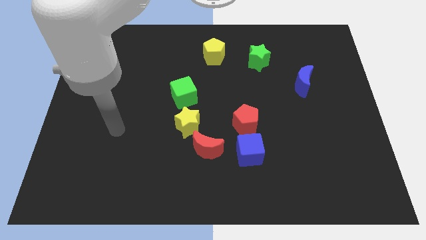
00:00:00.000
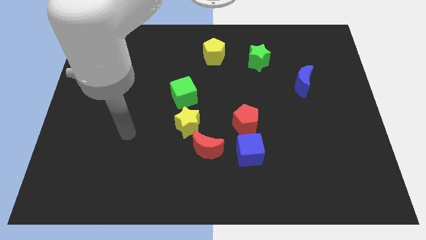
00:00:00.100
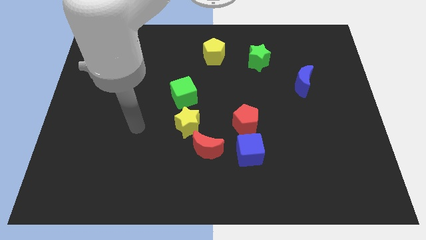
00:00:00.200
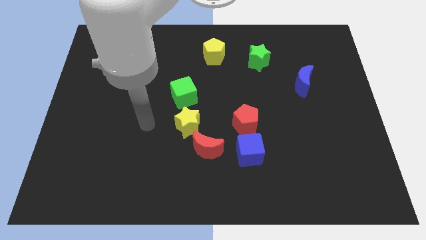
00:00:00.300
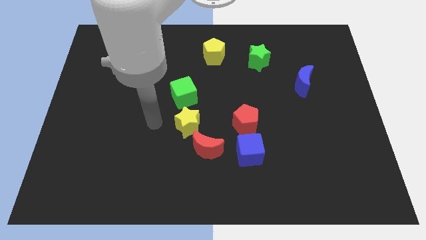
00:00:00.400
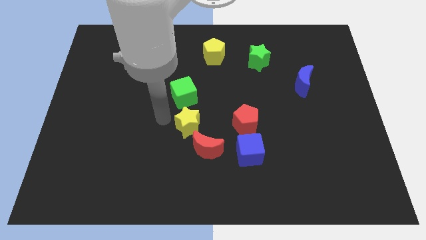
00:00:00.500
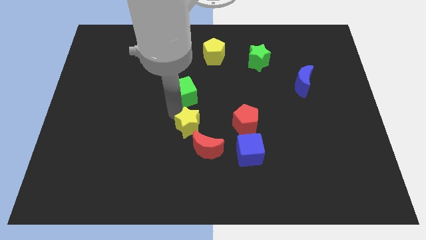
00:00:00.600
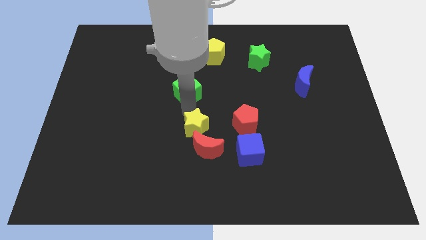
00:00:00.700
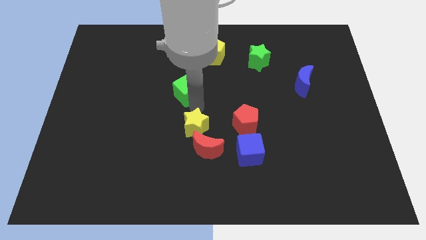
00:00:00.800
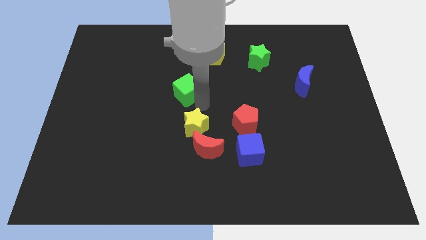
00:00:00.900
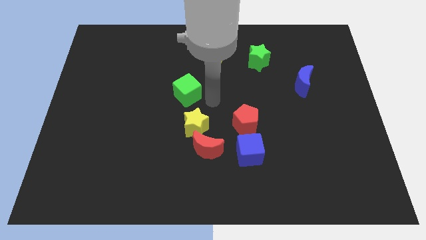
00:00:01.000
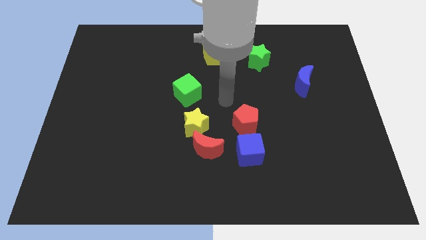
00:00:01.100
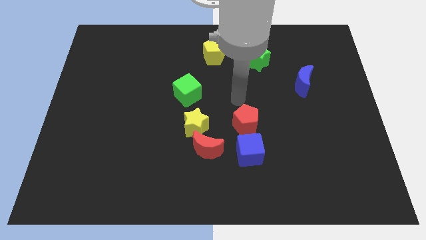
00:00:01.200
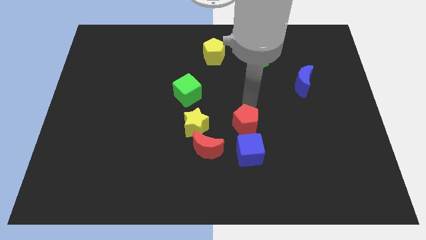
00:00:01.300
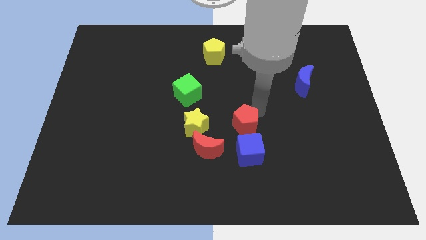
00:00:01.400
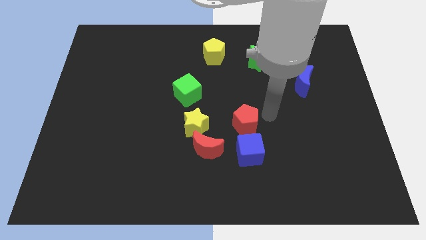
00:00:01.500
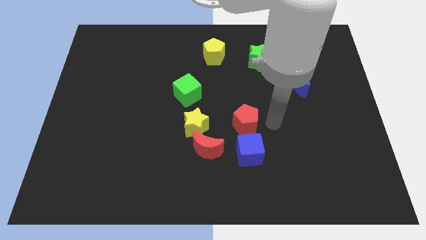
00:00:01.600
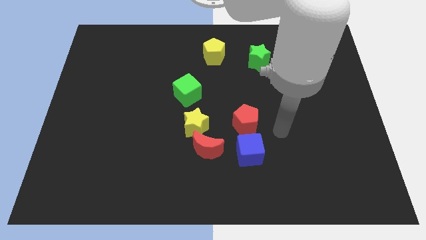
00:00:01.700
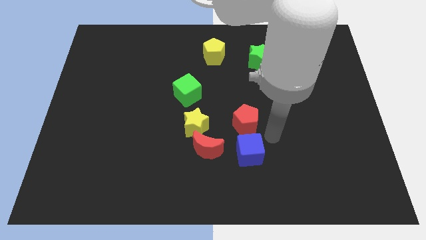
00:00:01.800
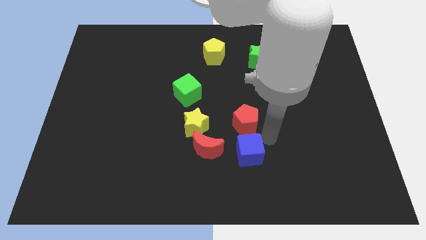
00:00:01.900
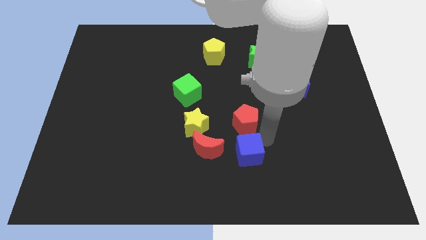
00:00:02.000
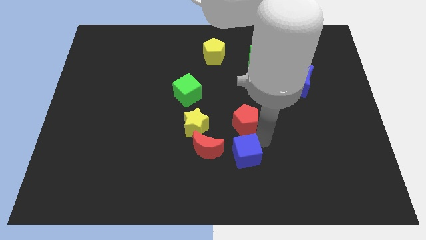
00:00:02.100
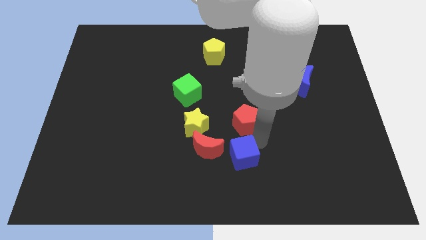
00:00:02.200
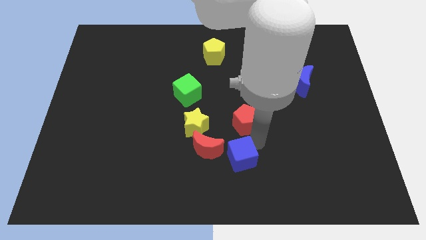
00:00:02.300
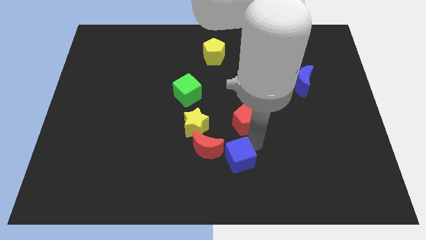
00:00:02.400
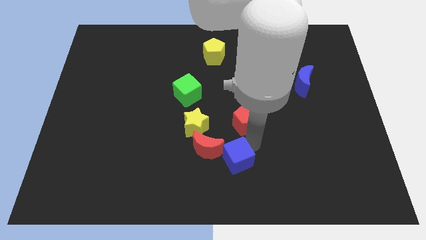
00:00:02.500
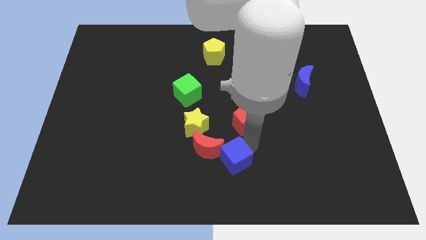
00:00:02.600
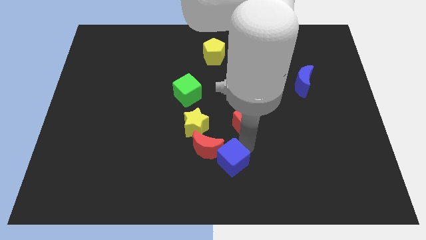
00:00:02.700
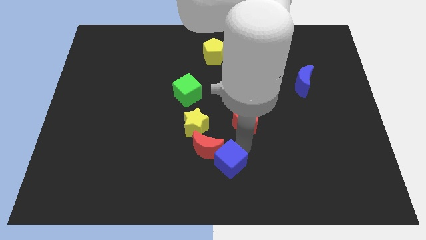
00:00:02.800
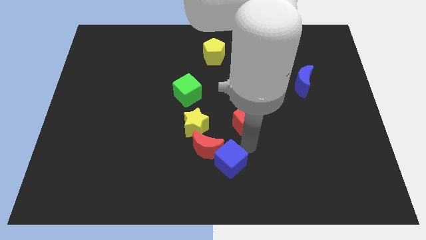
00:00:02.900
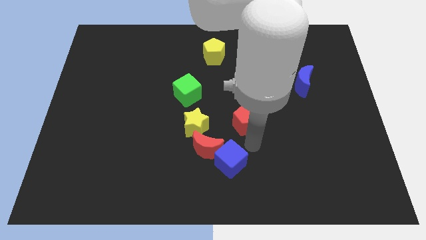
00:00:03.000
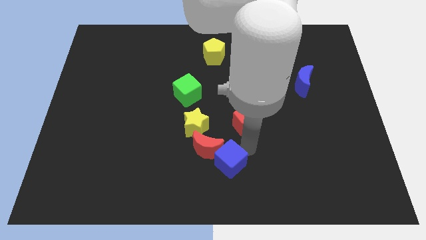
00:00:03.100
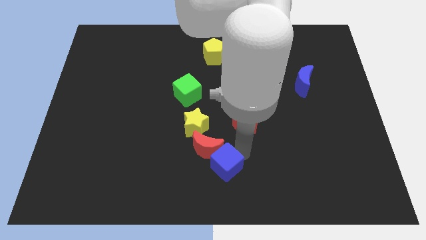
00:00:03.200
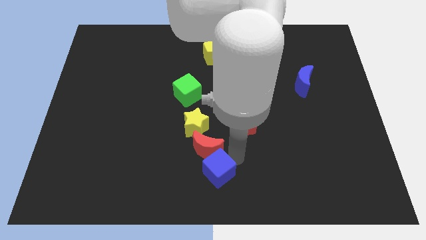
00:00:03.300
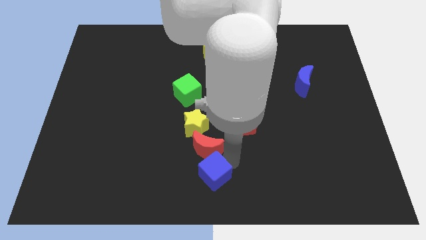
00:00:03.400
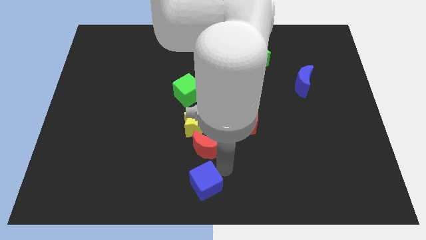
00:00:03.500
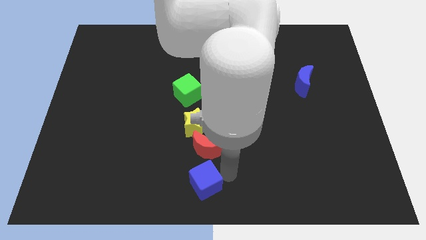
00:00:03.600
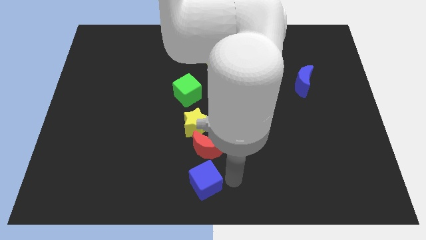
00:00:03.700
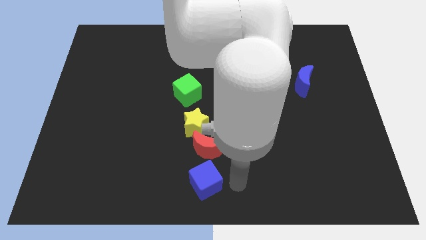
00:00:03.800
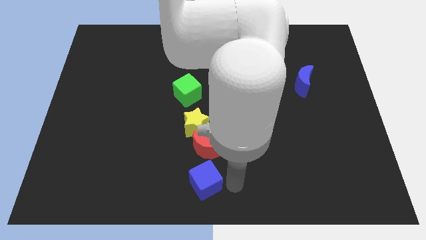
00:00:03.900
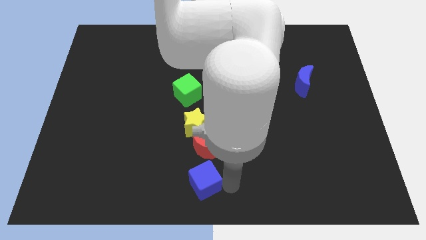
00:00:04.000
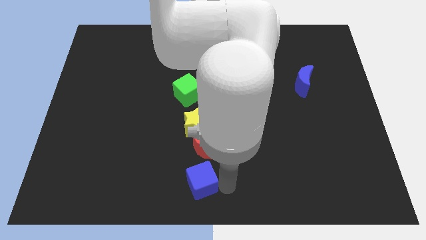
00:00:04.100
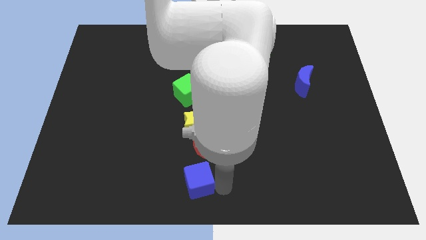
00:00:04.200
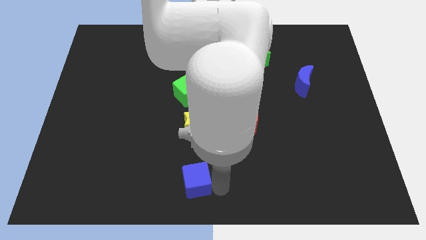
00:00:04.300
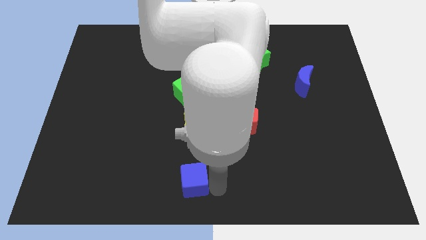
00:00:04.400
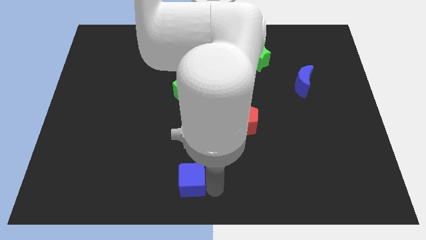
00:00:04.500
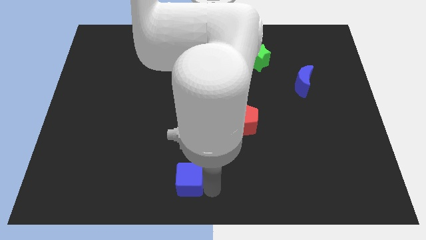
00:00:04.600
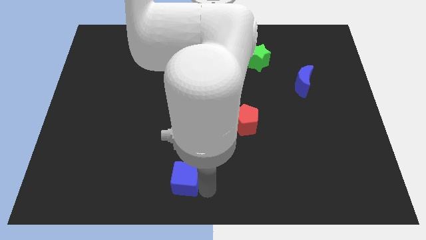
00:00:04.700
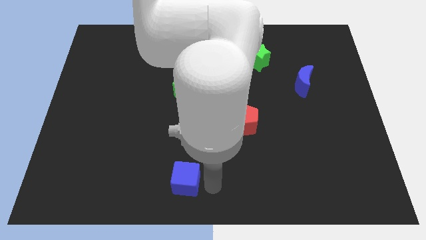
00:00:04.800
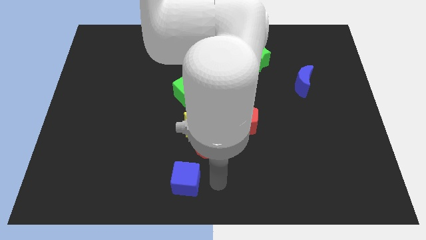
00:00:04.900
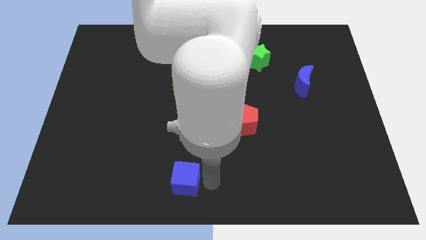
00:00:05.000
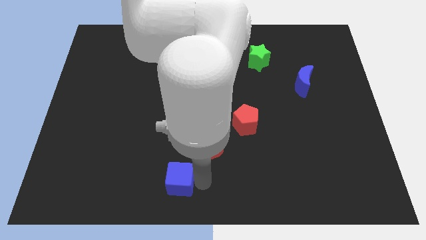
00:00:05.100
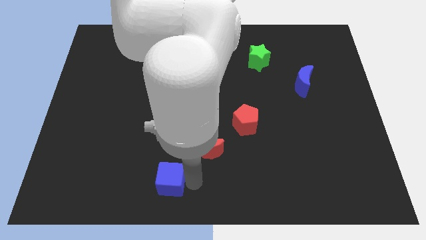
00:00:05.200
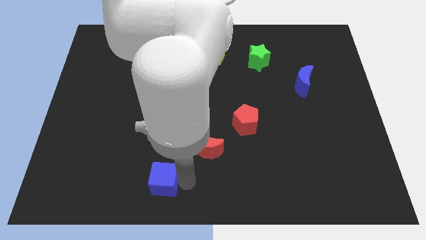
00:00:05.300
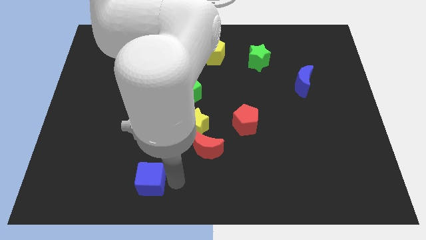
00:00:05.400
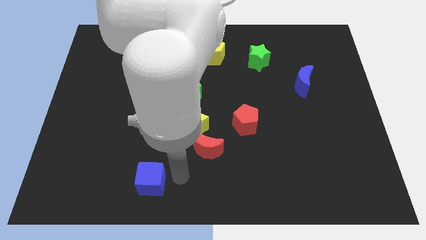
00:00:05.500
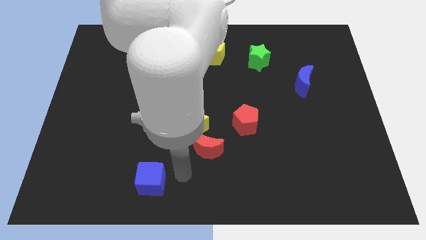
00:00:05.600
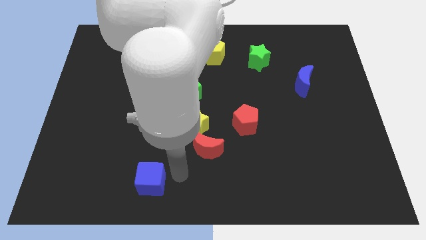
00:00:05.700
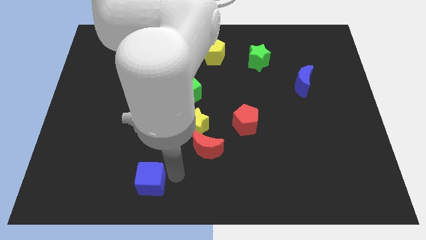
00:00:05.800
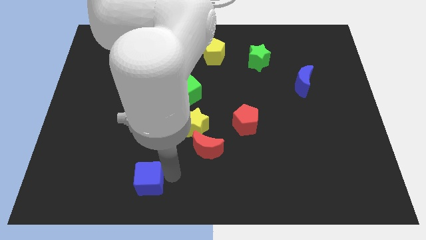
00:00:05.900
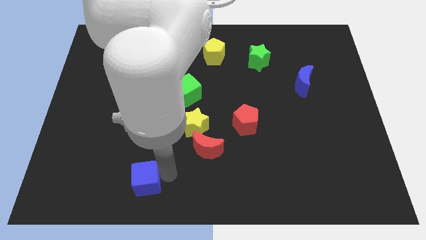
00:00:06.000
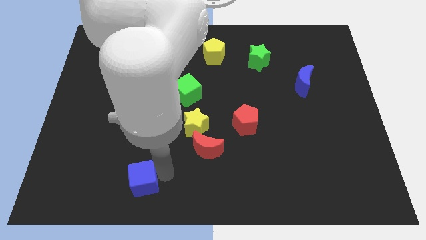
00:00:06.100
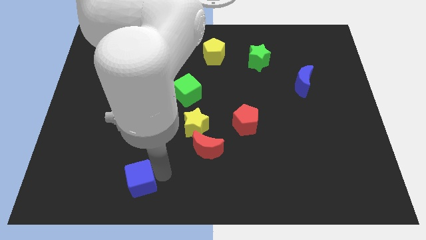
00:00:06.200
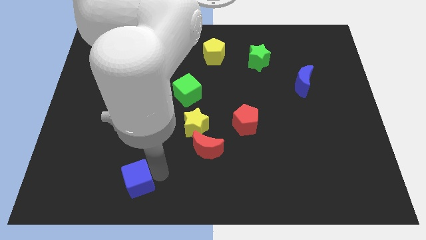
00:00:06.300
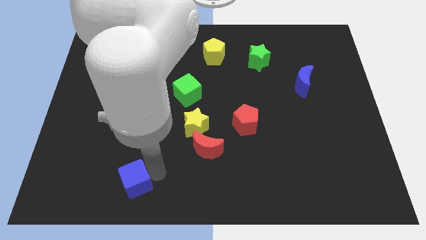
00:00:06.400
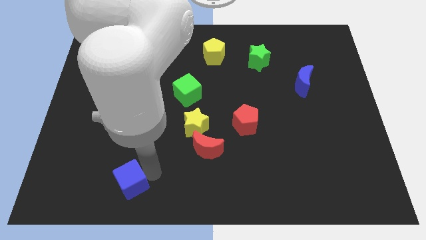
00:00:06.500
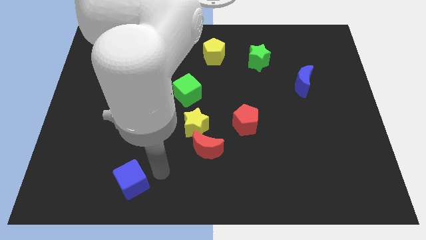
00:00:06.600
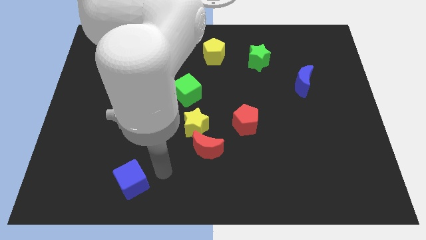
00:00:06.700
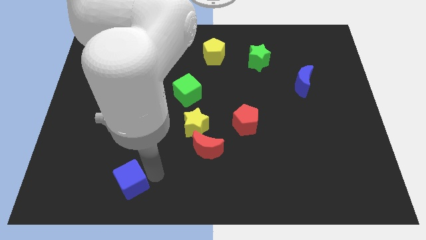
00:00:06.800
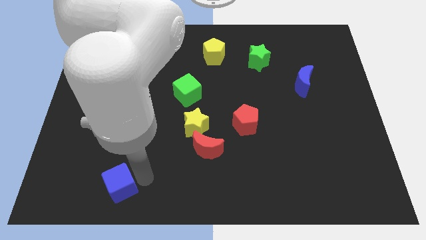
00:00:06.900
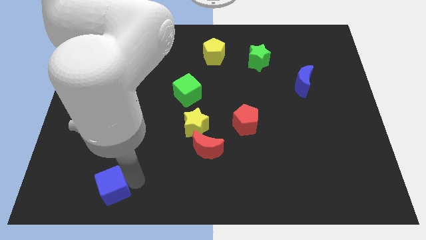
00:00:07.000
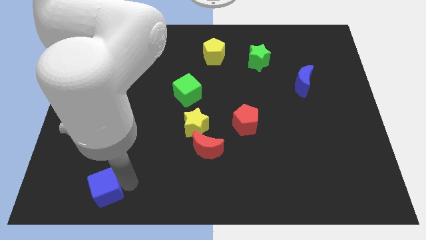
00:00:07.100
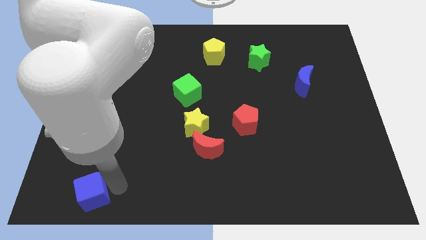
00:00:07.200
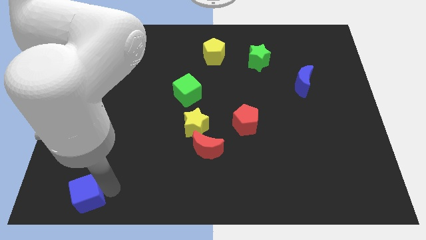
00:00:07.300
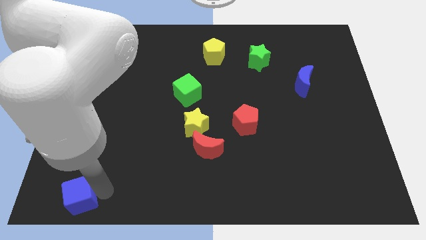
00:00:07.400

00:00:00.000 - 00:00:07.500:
push the blue cube to the lower left corner
